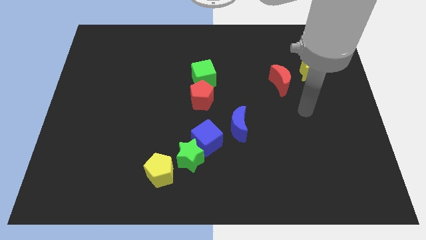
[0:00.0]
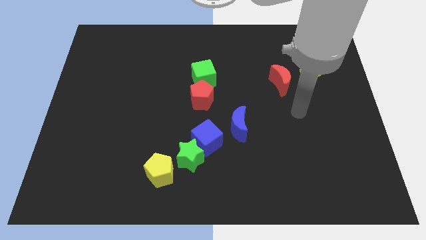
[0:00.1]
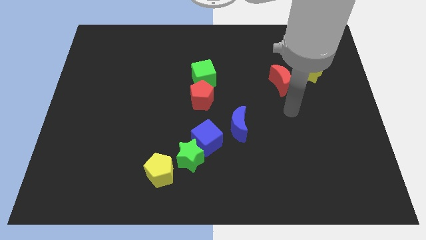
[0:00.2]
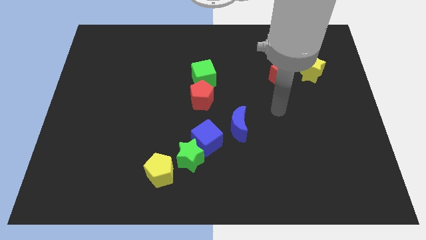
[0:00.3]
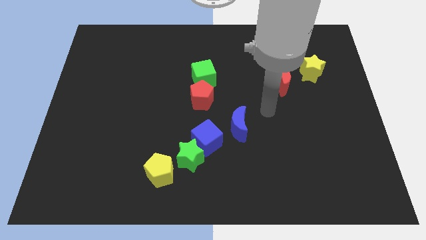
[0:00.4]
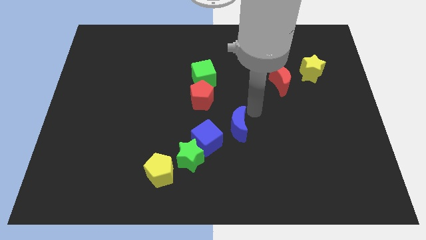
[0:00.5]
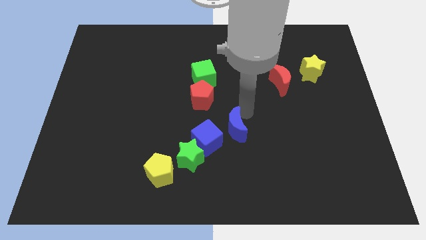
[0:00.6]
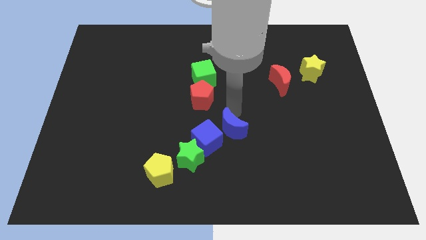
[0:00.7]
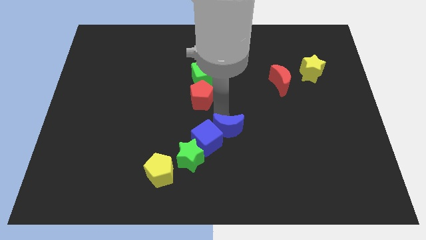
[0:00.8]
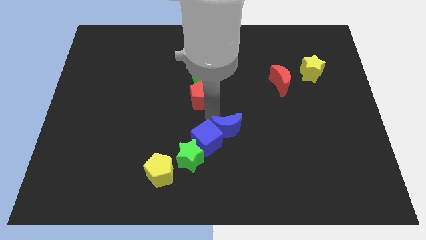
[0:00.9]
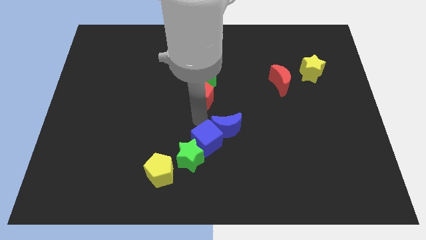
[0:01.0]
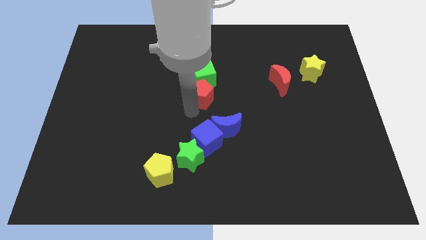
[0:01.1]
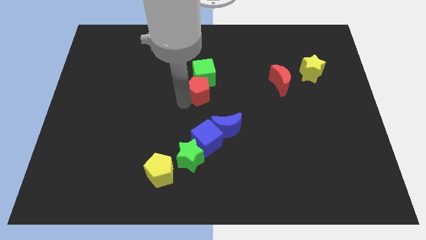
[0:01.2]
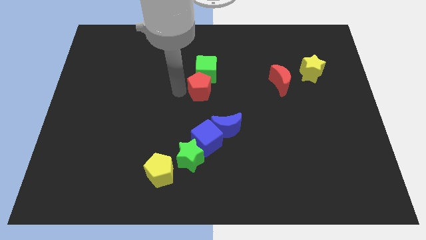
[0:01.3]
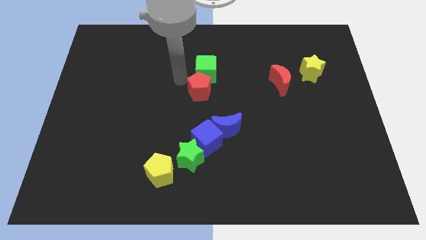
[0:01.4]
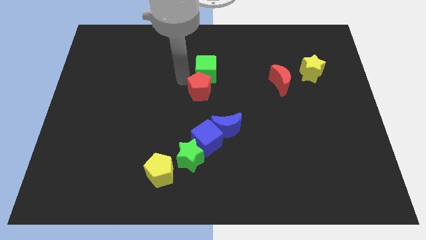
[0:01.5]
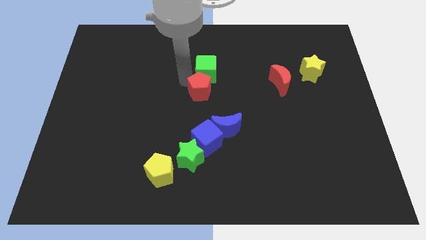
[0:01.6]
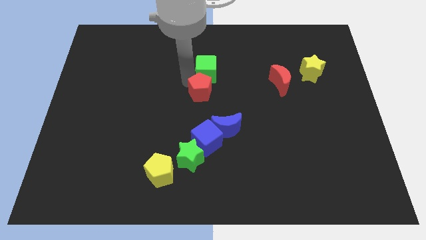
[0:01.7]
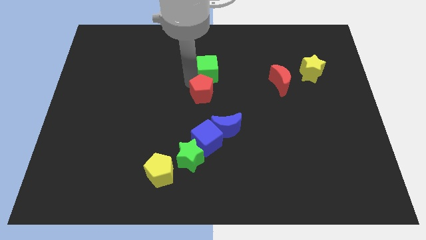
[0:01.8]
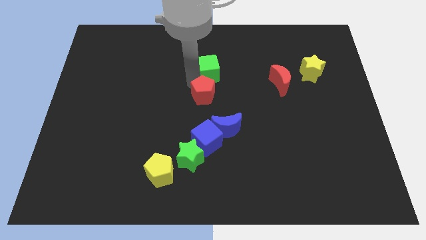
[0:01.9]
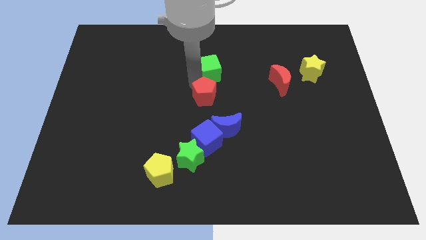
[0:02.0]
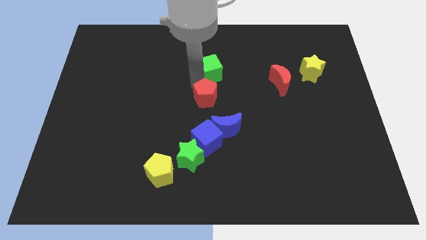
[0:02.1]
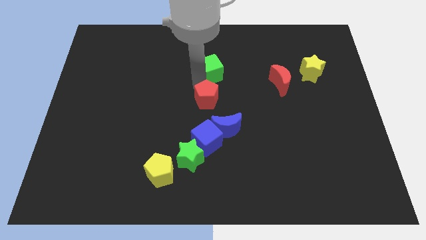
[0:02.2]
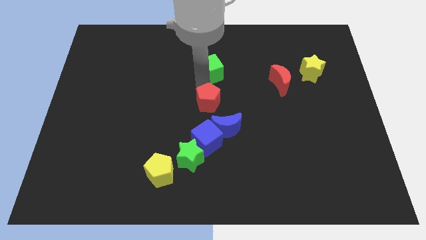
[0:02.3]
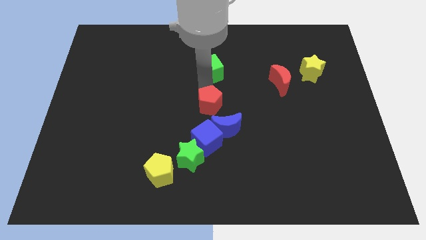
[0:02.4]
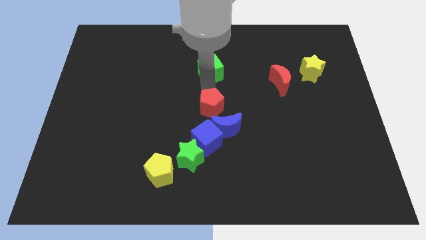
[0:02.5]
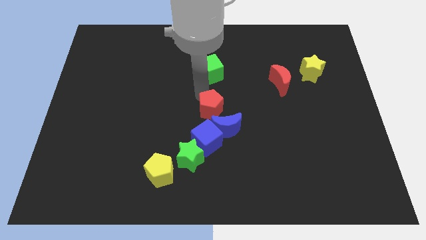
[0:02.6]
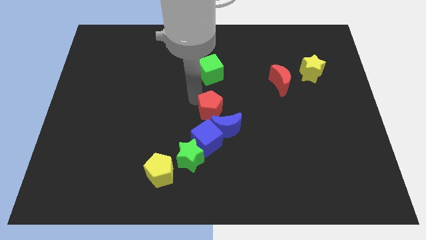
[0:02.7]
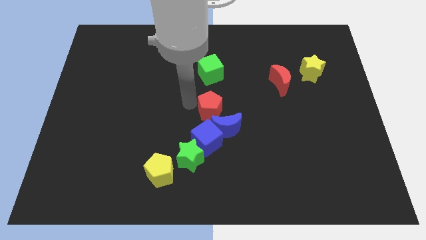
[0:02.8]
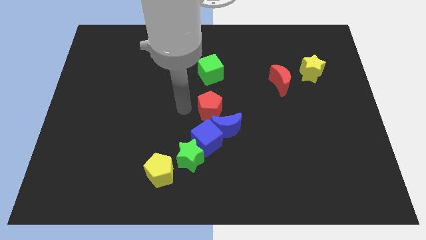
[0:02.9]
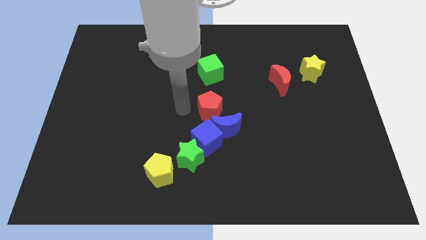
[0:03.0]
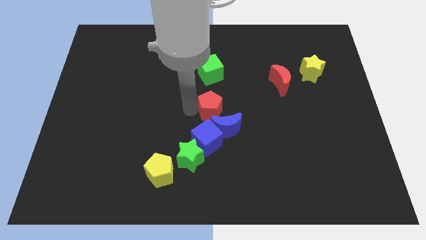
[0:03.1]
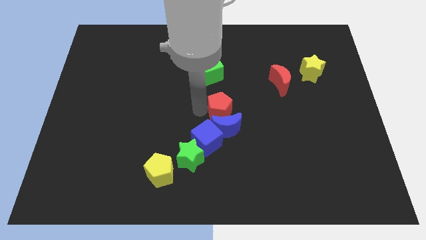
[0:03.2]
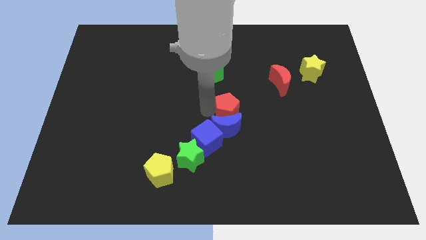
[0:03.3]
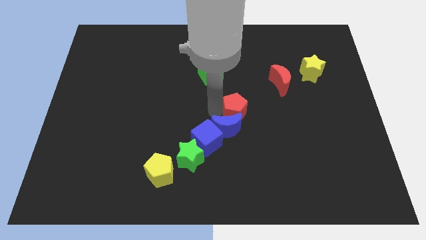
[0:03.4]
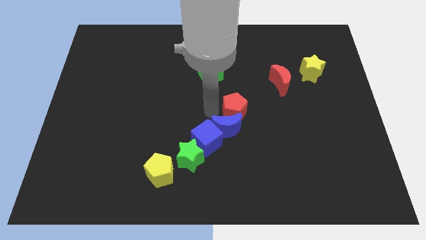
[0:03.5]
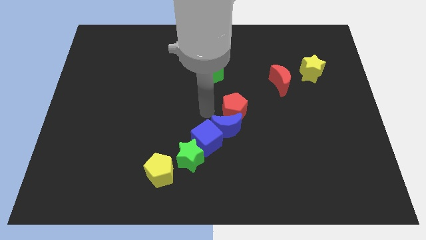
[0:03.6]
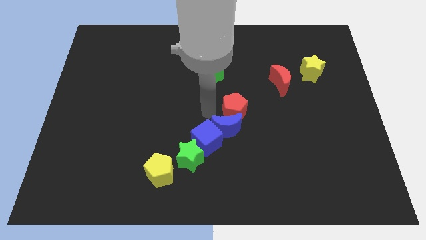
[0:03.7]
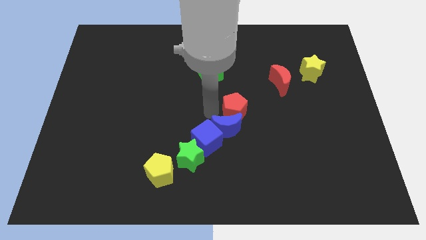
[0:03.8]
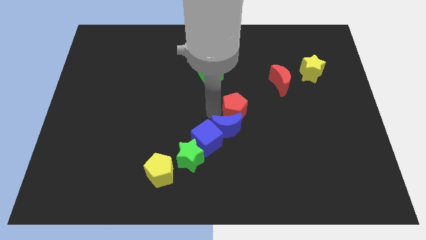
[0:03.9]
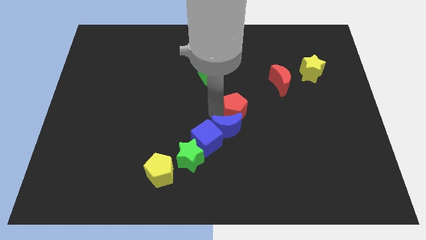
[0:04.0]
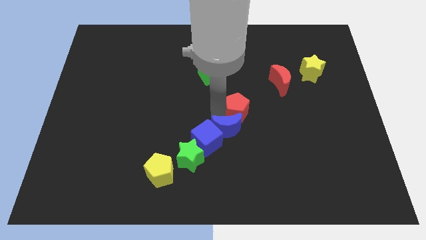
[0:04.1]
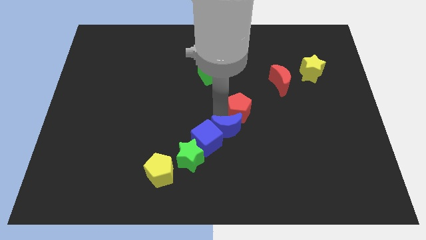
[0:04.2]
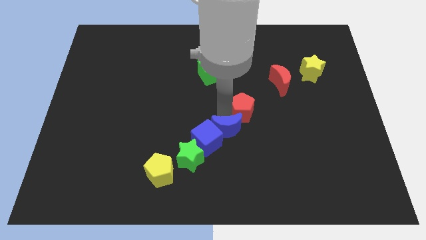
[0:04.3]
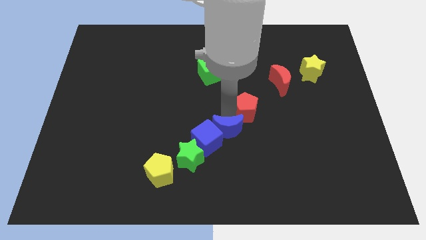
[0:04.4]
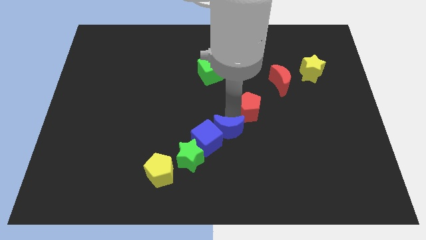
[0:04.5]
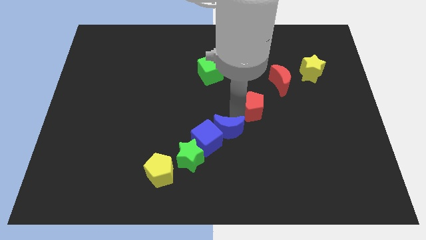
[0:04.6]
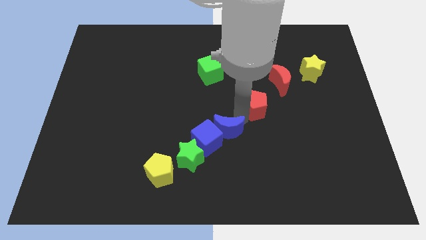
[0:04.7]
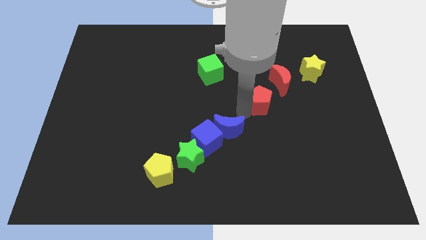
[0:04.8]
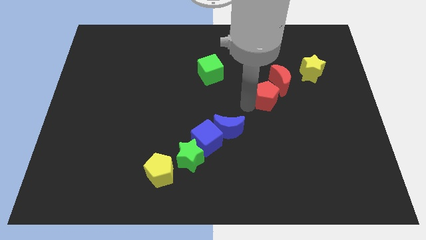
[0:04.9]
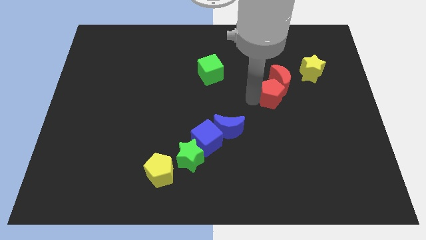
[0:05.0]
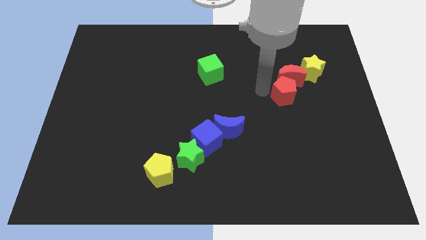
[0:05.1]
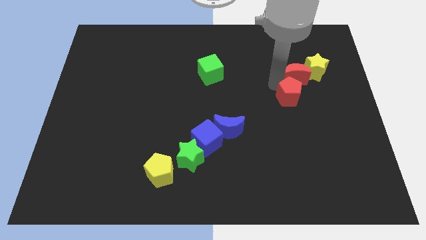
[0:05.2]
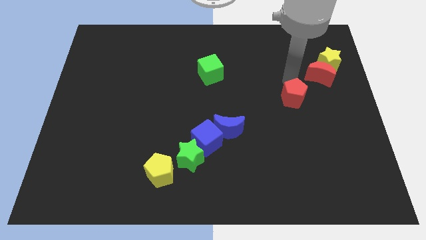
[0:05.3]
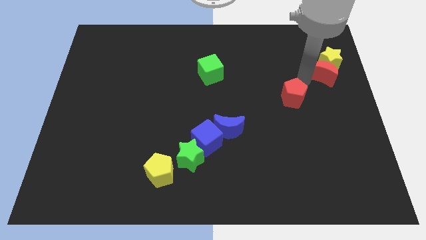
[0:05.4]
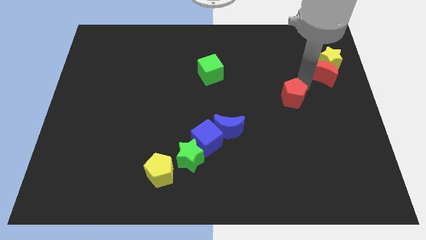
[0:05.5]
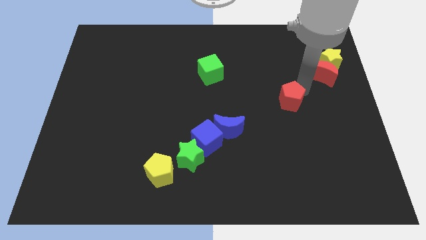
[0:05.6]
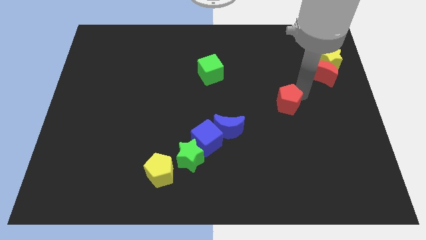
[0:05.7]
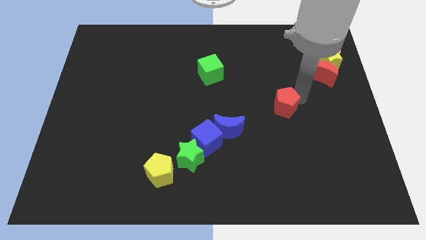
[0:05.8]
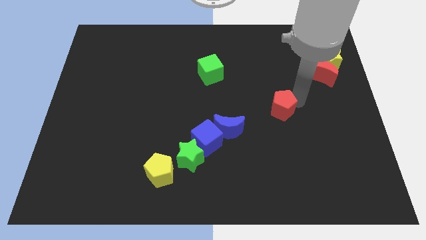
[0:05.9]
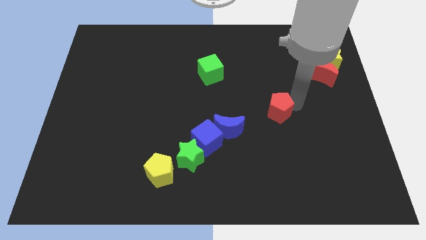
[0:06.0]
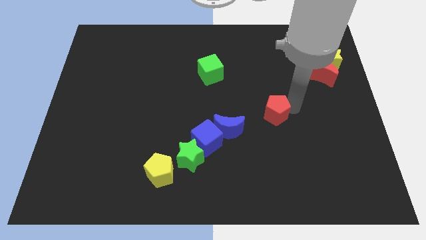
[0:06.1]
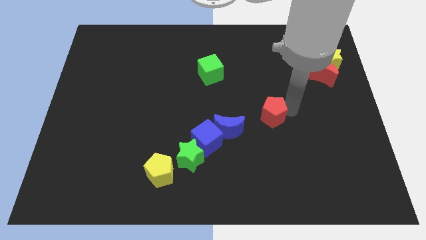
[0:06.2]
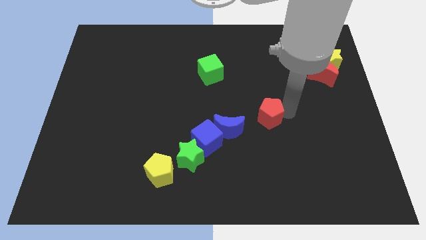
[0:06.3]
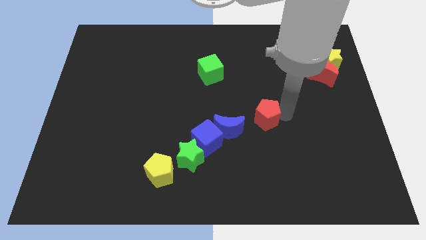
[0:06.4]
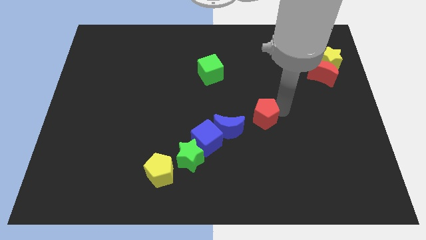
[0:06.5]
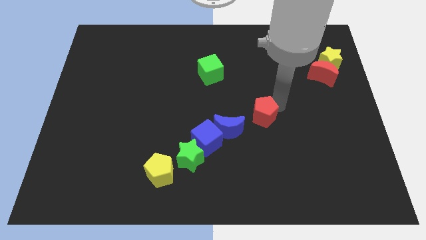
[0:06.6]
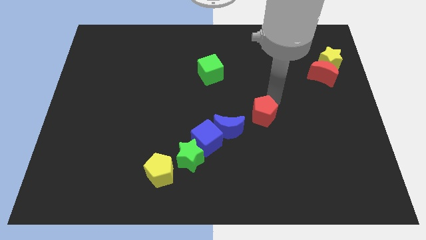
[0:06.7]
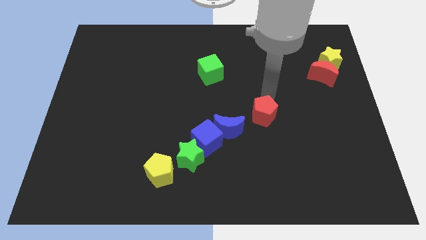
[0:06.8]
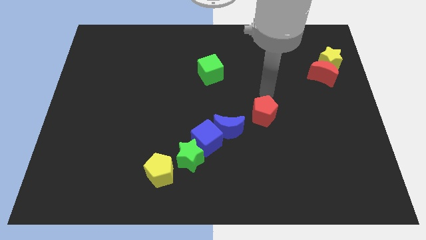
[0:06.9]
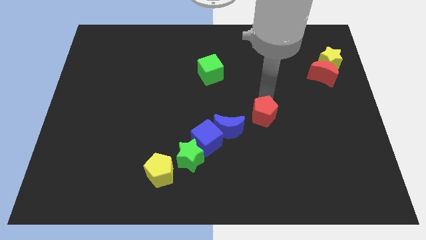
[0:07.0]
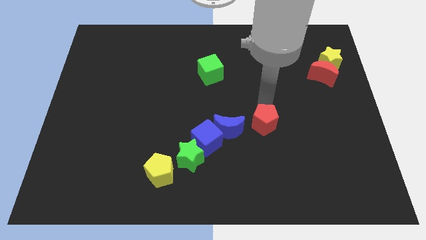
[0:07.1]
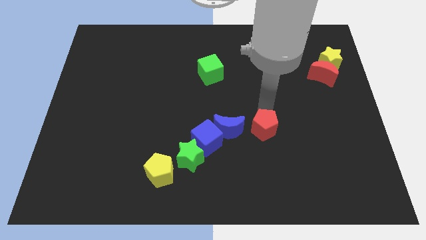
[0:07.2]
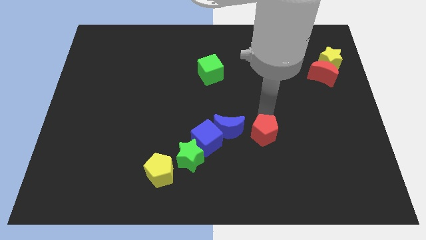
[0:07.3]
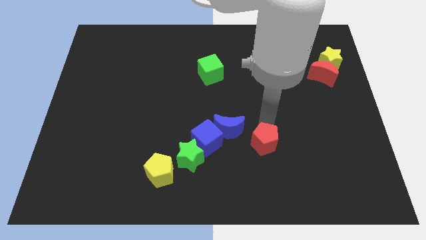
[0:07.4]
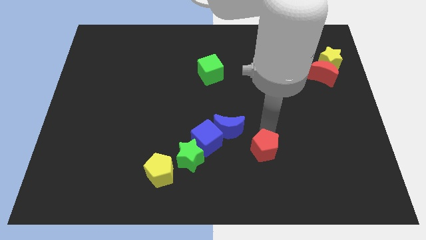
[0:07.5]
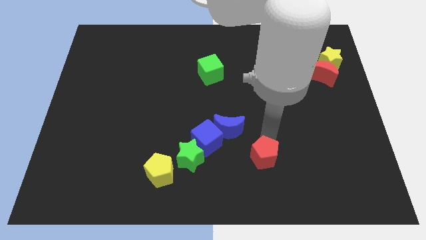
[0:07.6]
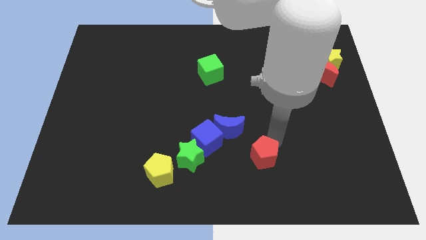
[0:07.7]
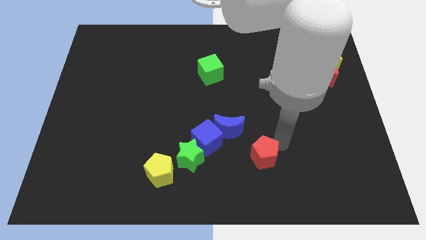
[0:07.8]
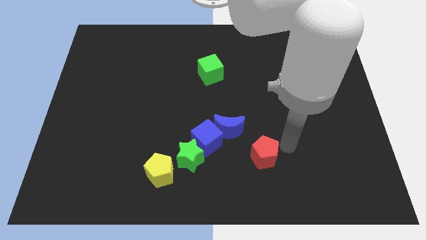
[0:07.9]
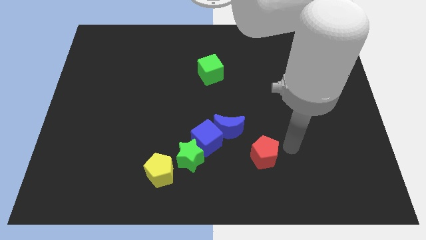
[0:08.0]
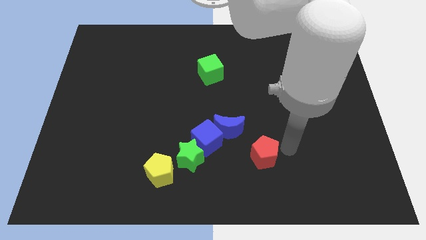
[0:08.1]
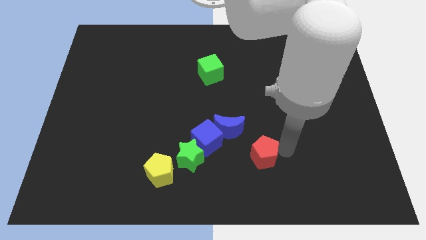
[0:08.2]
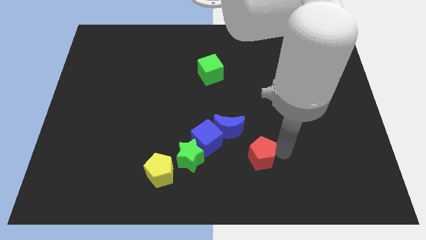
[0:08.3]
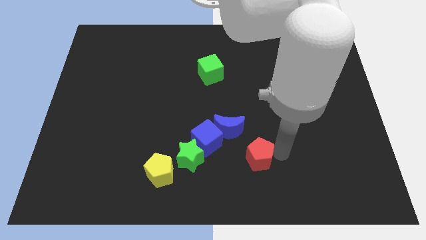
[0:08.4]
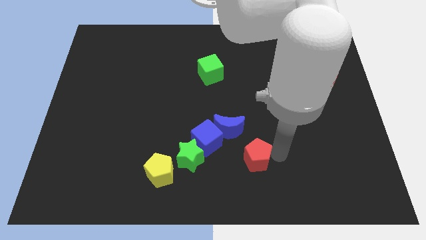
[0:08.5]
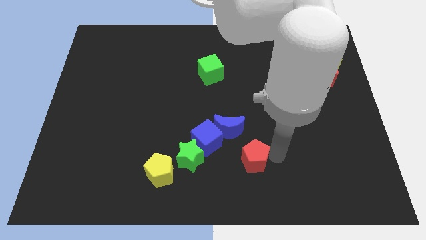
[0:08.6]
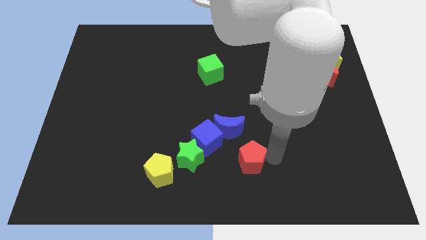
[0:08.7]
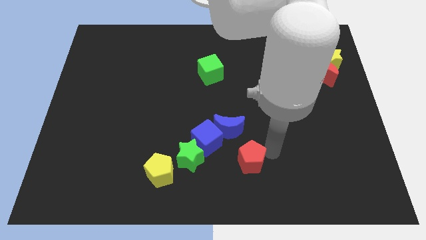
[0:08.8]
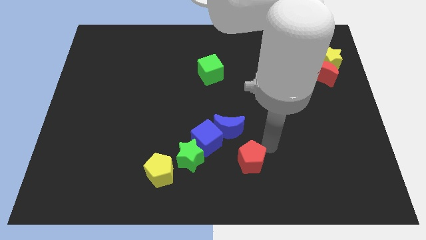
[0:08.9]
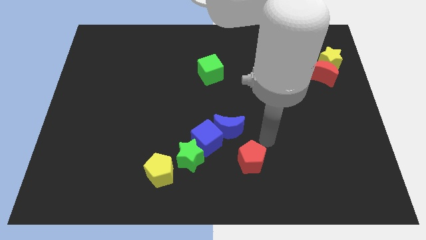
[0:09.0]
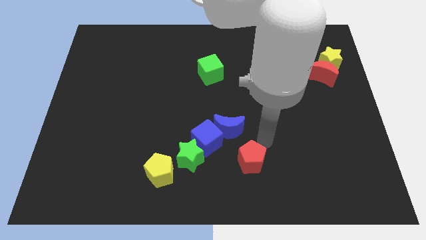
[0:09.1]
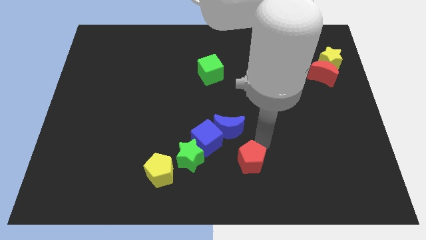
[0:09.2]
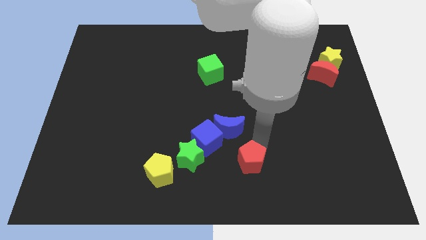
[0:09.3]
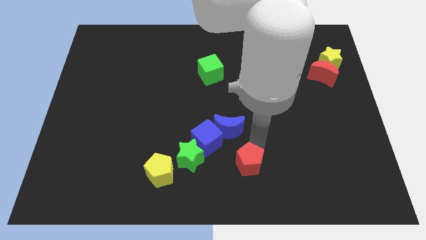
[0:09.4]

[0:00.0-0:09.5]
put the red pentagon to the bottom side
